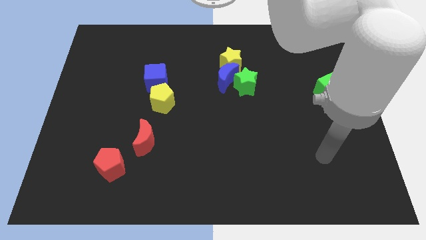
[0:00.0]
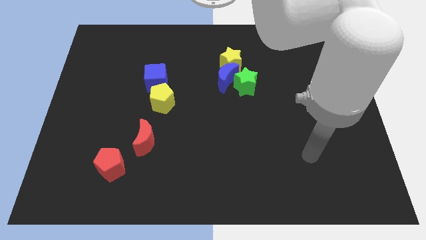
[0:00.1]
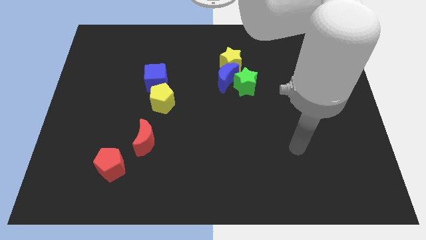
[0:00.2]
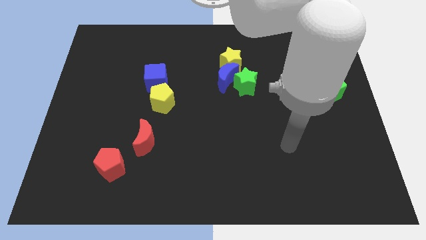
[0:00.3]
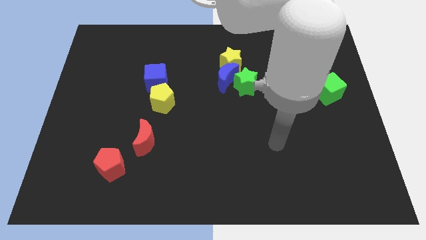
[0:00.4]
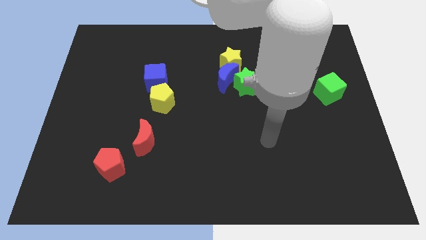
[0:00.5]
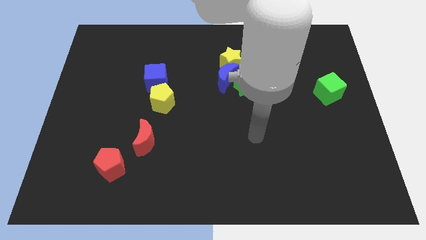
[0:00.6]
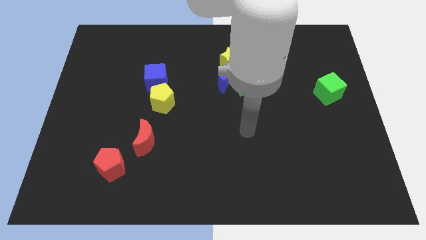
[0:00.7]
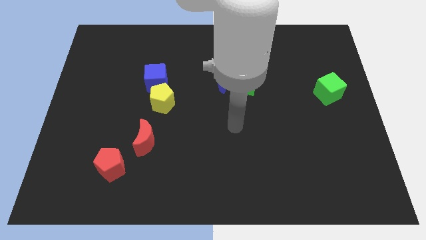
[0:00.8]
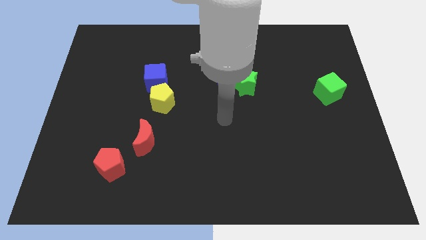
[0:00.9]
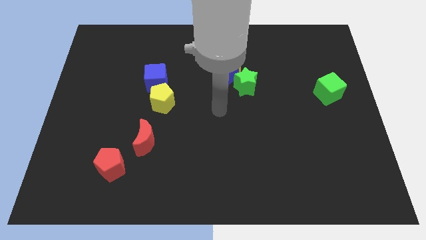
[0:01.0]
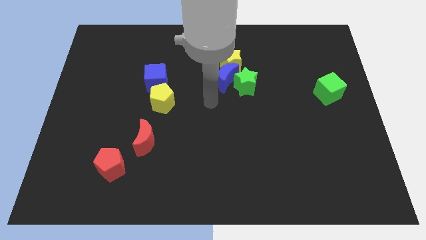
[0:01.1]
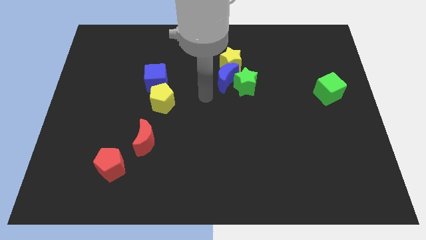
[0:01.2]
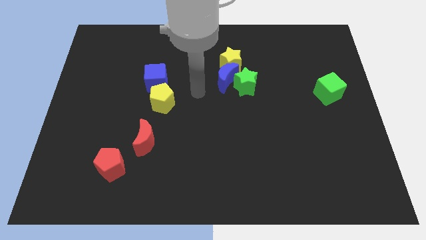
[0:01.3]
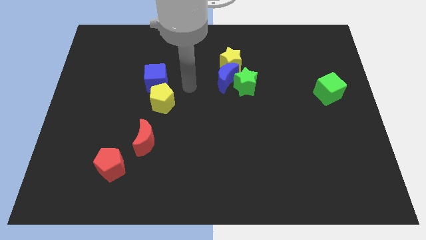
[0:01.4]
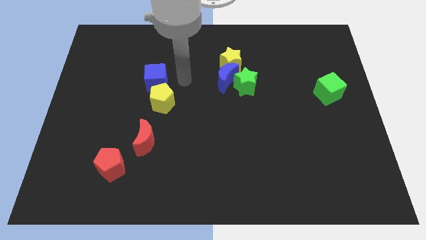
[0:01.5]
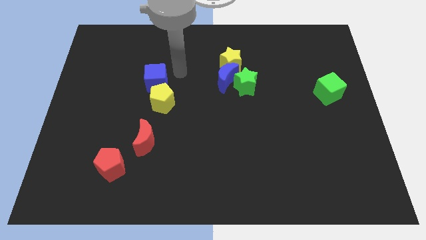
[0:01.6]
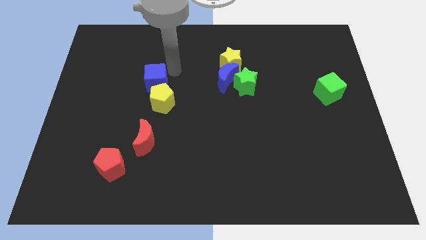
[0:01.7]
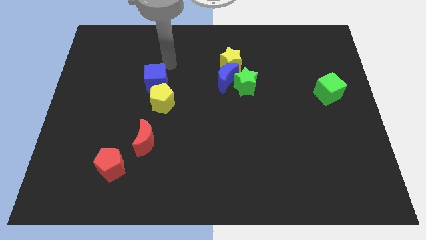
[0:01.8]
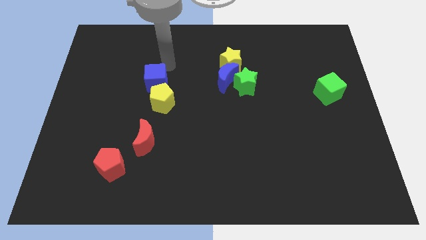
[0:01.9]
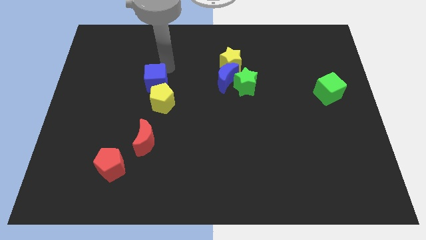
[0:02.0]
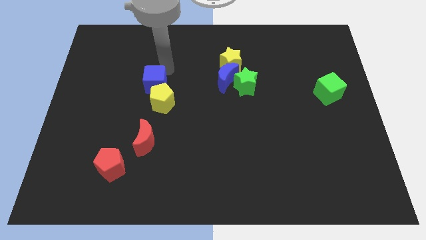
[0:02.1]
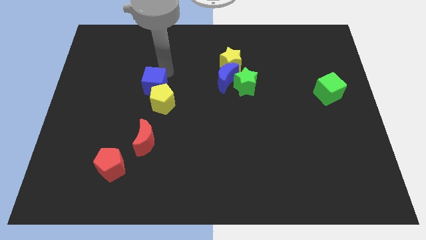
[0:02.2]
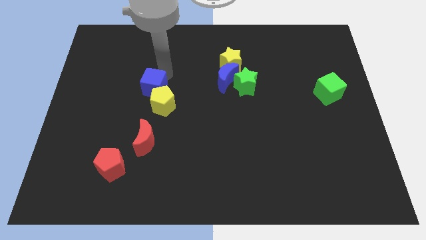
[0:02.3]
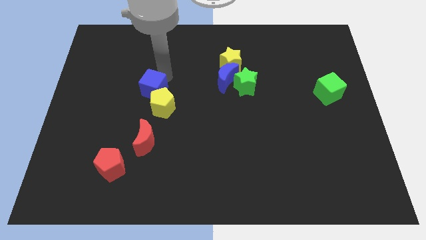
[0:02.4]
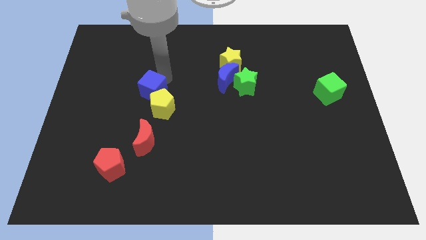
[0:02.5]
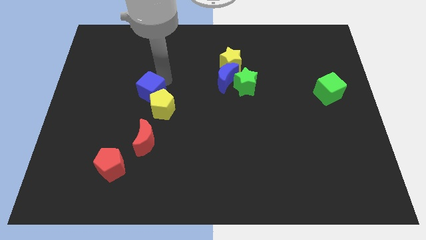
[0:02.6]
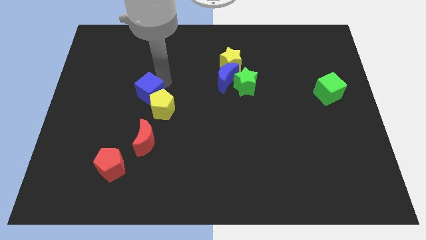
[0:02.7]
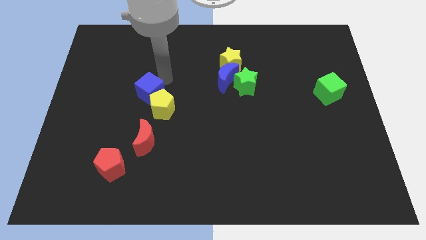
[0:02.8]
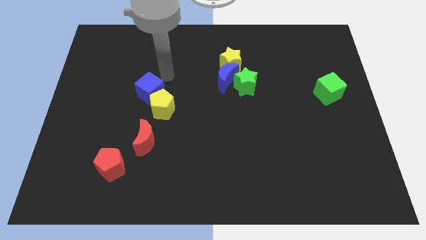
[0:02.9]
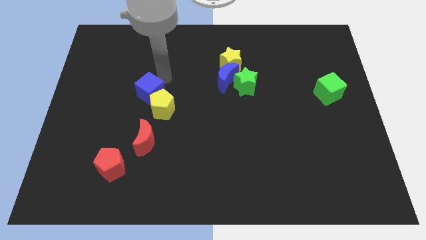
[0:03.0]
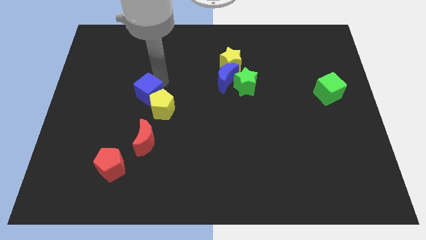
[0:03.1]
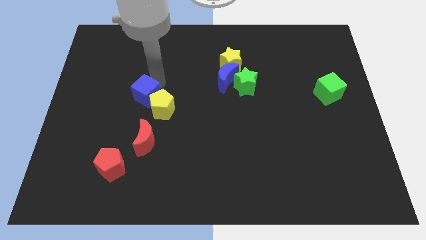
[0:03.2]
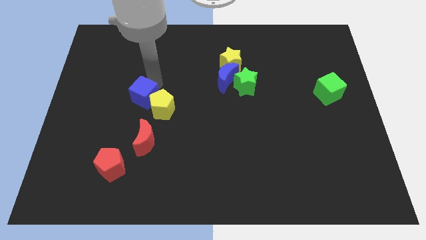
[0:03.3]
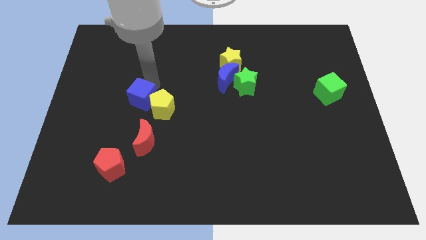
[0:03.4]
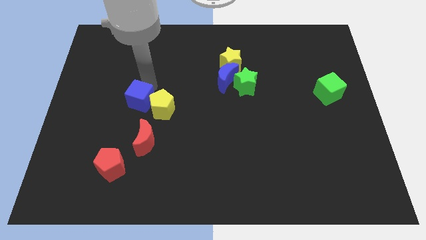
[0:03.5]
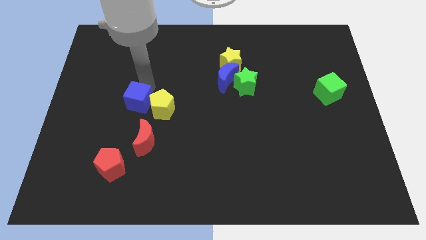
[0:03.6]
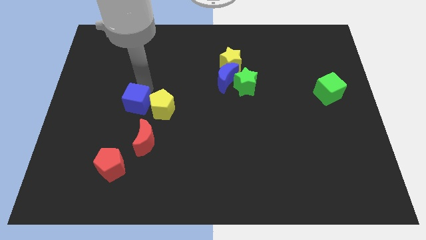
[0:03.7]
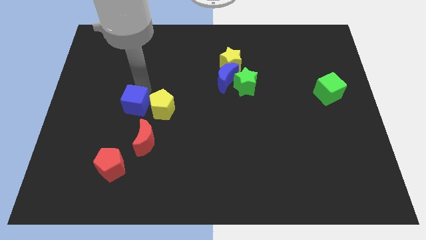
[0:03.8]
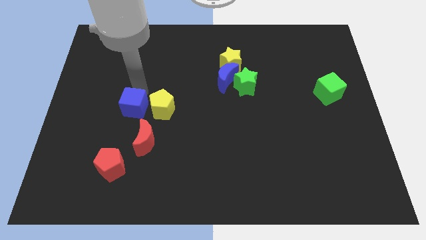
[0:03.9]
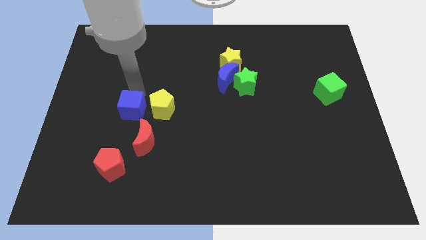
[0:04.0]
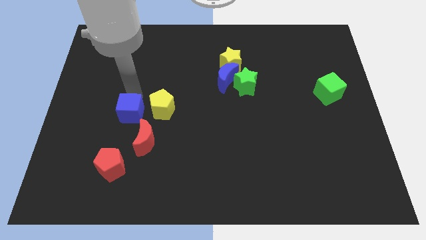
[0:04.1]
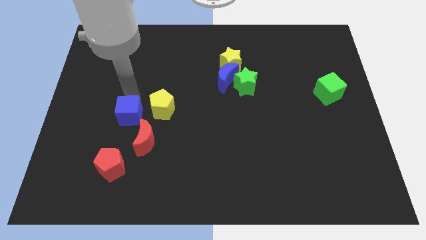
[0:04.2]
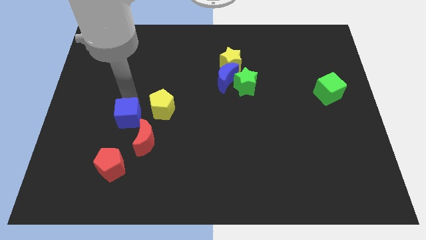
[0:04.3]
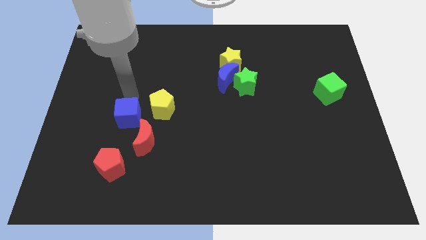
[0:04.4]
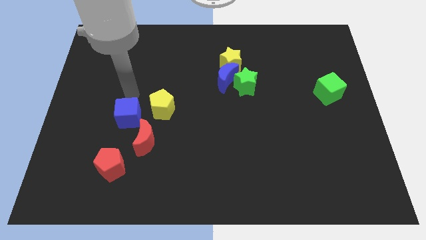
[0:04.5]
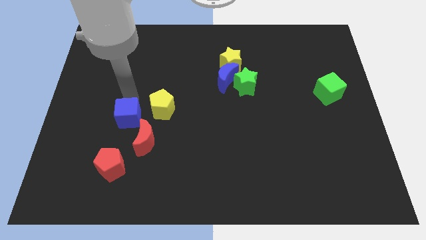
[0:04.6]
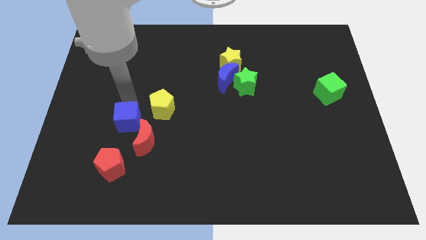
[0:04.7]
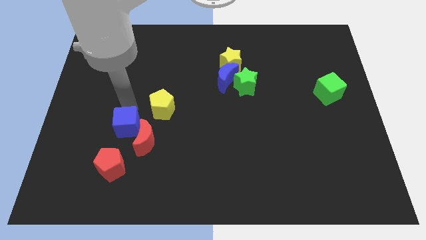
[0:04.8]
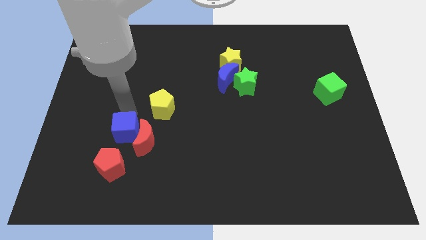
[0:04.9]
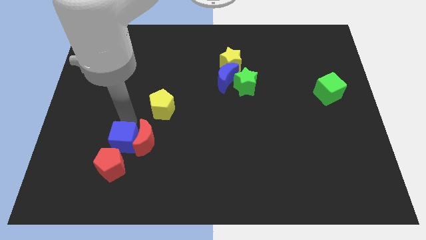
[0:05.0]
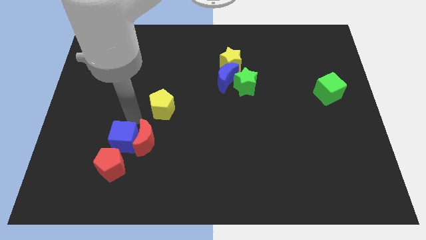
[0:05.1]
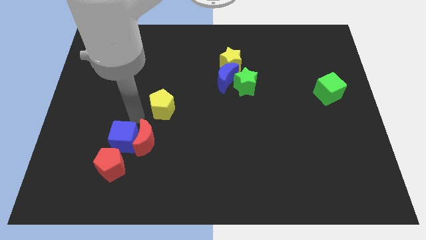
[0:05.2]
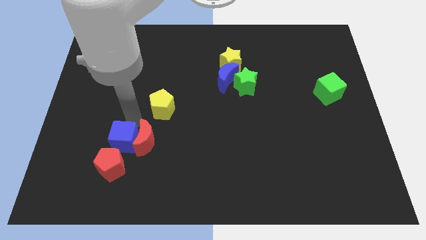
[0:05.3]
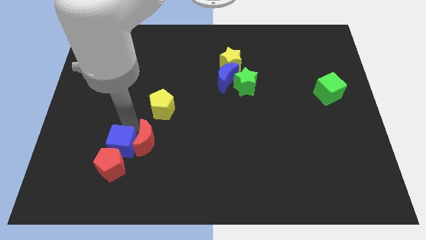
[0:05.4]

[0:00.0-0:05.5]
put the blue cube next to the red pentagon

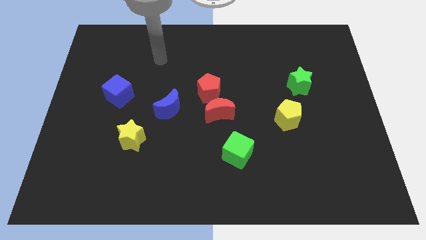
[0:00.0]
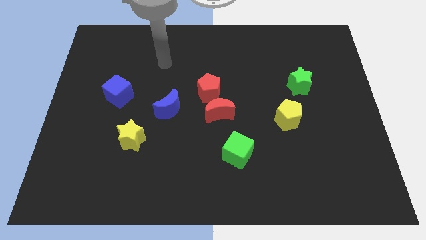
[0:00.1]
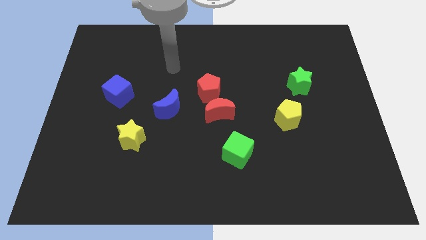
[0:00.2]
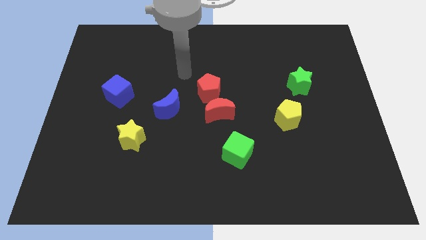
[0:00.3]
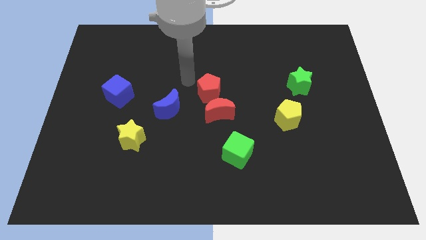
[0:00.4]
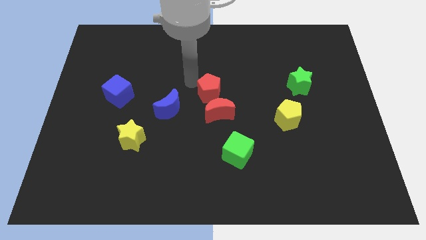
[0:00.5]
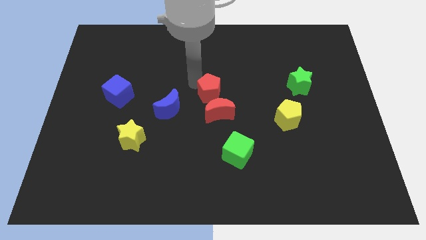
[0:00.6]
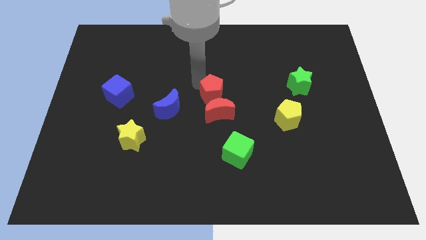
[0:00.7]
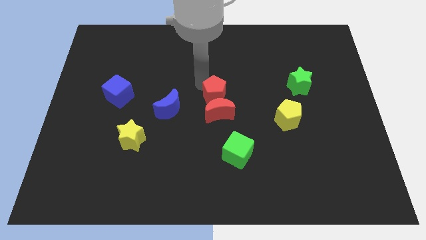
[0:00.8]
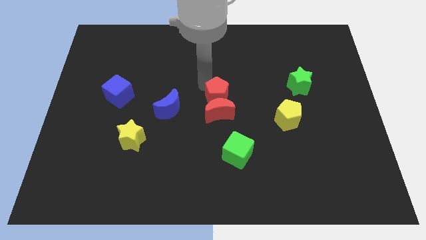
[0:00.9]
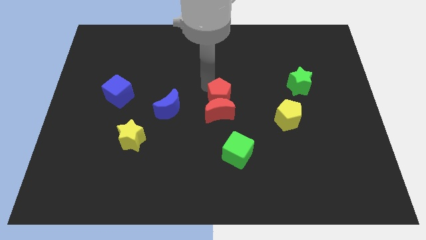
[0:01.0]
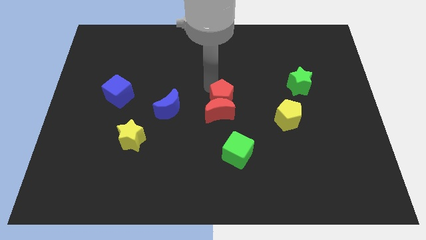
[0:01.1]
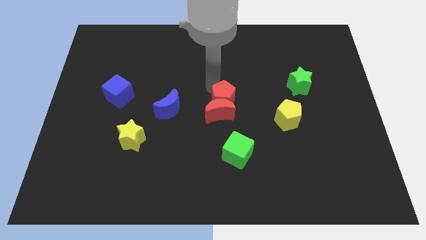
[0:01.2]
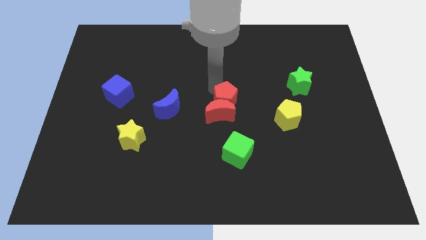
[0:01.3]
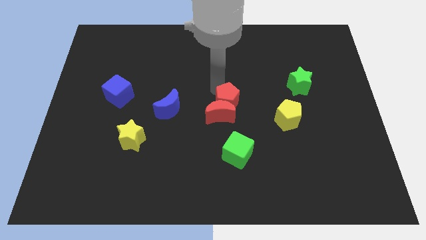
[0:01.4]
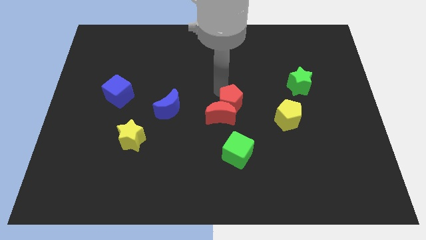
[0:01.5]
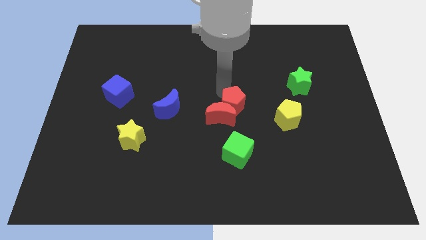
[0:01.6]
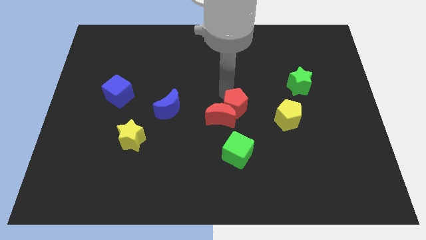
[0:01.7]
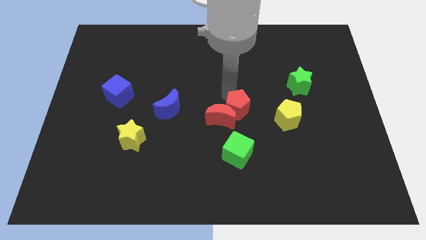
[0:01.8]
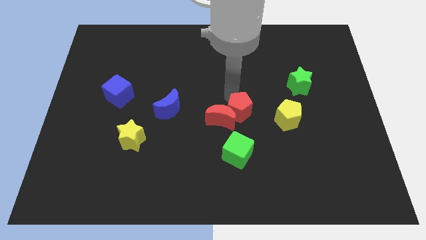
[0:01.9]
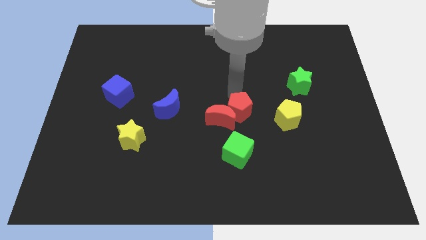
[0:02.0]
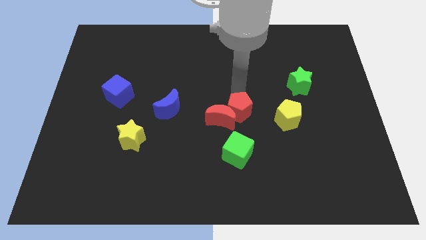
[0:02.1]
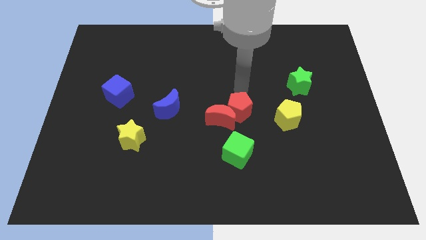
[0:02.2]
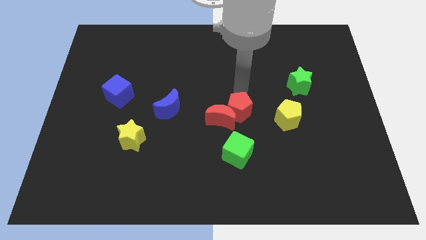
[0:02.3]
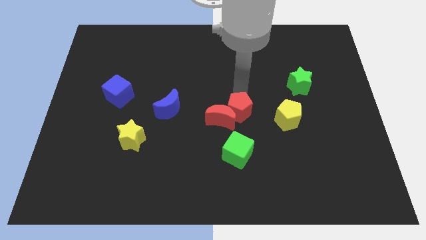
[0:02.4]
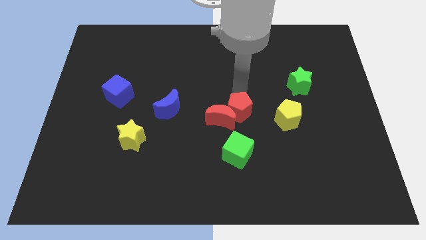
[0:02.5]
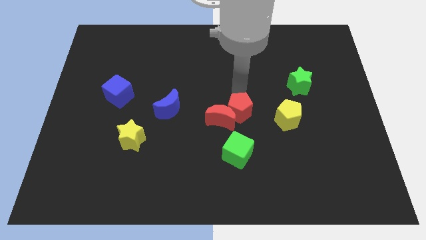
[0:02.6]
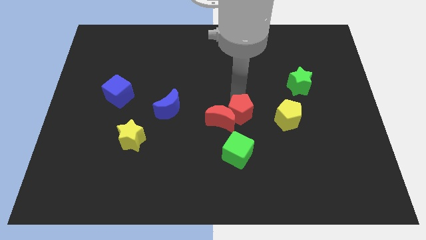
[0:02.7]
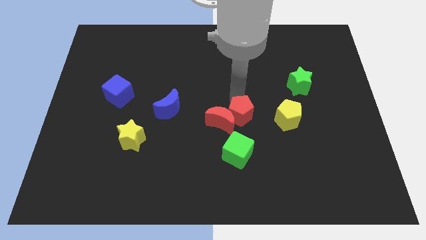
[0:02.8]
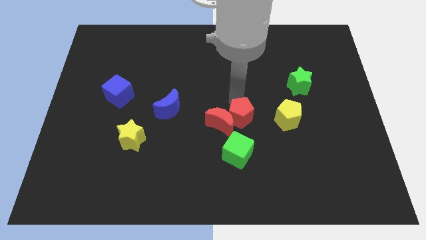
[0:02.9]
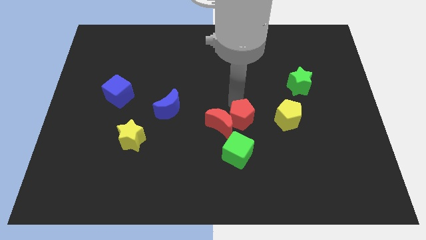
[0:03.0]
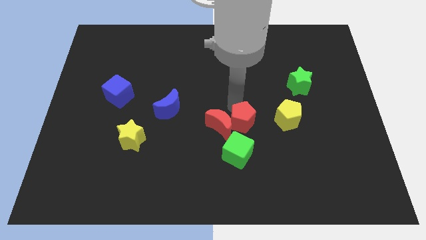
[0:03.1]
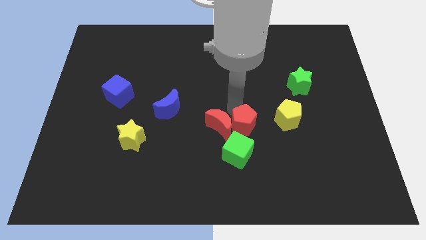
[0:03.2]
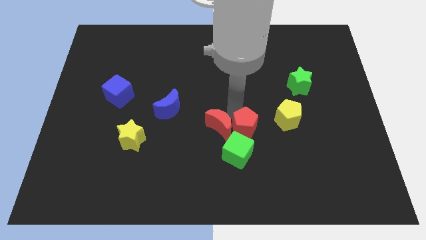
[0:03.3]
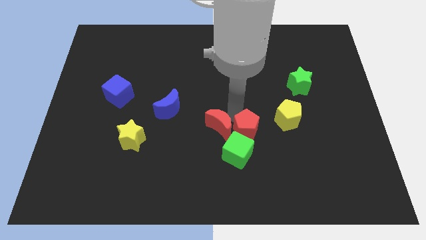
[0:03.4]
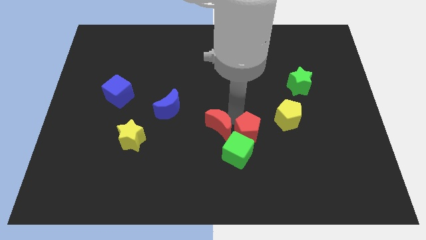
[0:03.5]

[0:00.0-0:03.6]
slide the red pentagon next to the green cube
